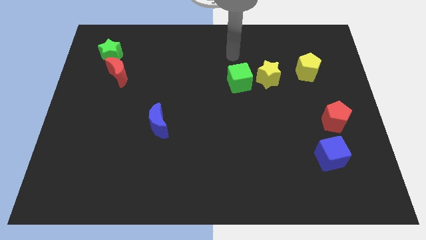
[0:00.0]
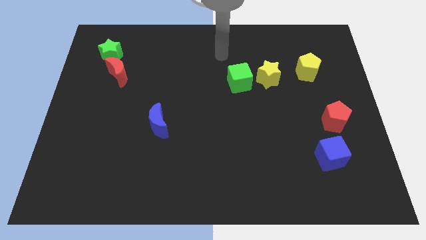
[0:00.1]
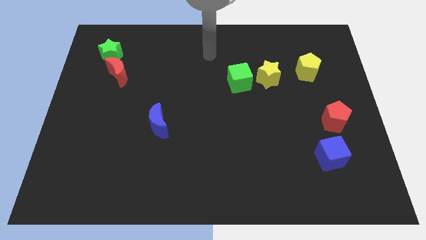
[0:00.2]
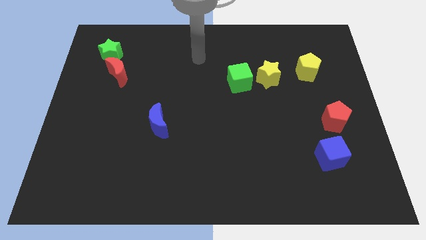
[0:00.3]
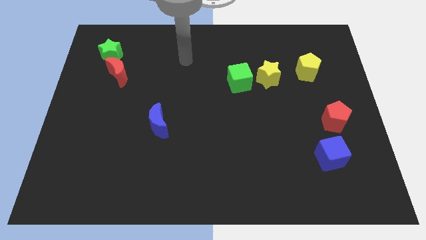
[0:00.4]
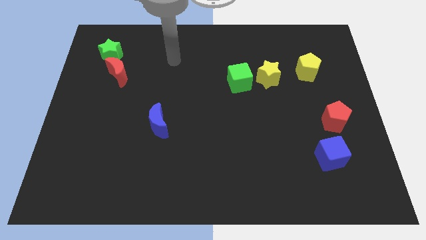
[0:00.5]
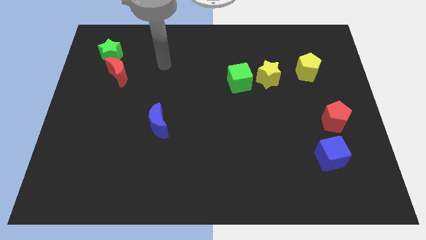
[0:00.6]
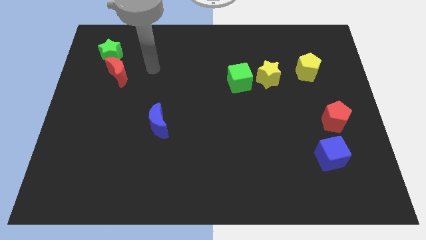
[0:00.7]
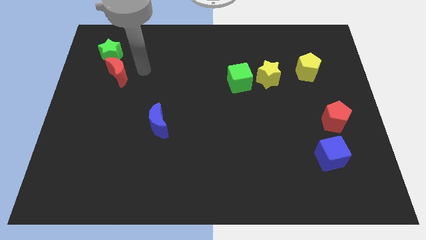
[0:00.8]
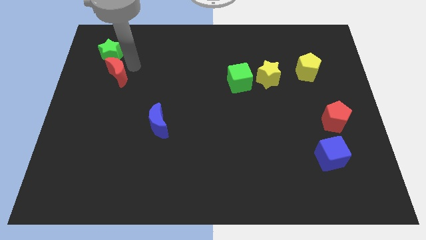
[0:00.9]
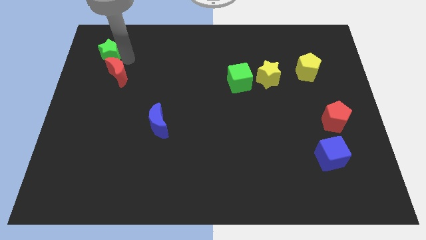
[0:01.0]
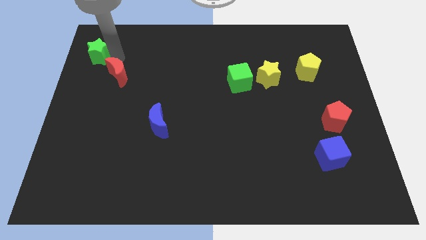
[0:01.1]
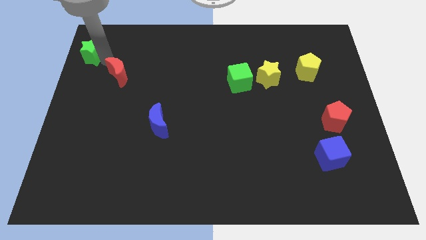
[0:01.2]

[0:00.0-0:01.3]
move the red moon away from the green star

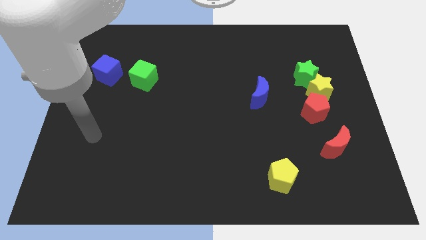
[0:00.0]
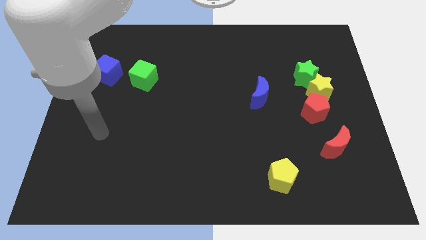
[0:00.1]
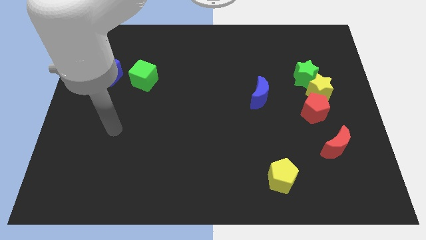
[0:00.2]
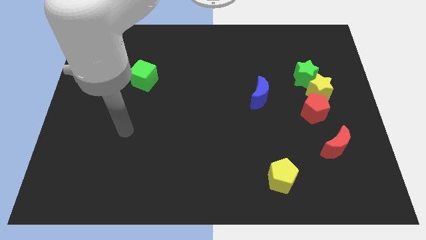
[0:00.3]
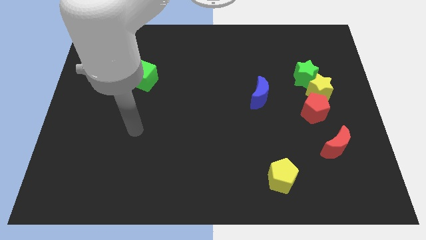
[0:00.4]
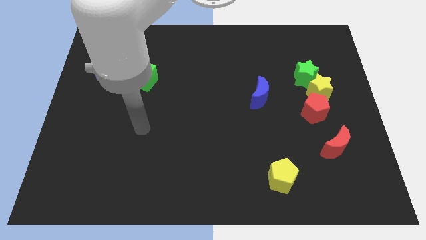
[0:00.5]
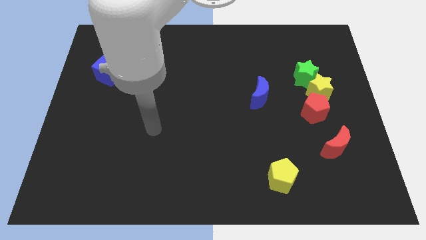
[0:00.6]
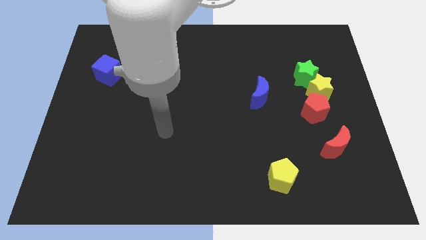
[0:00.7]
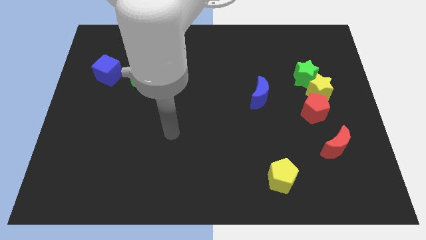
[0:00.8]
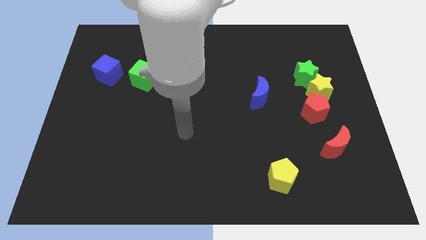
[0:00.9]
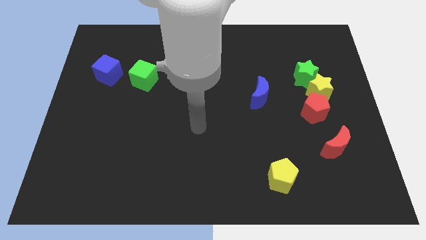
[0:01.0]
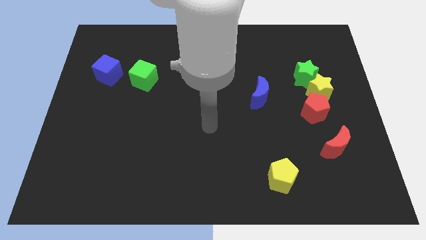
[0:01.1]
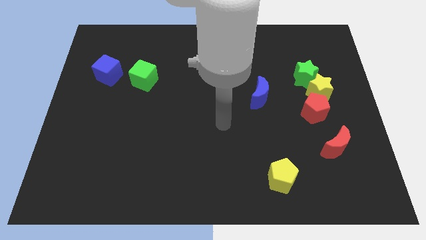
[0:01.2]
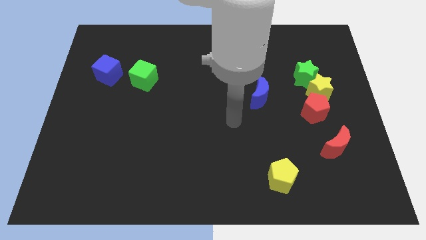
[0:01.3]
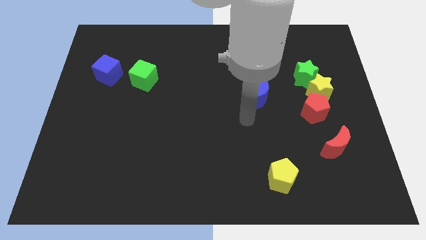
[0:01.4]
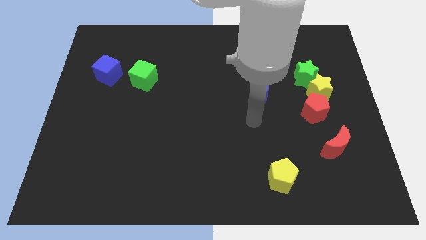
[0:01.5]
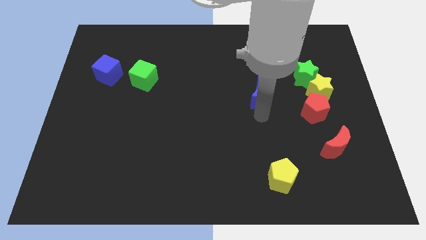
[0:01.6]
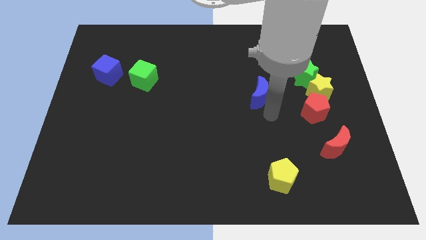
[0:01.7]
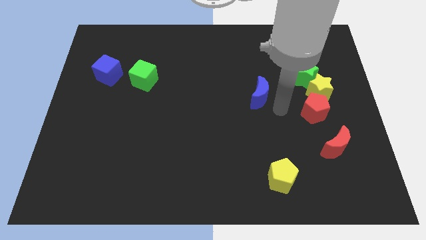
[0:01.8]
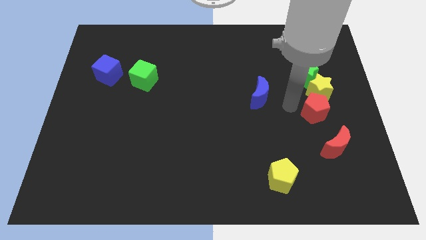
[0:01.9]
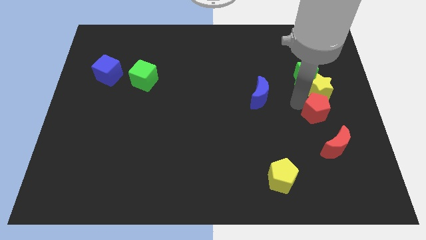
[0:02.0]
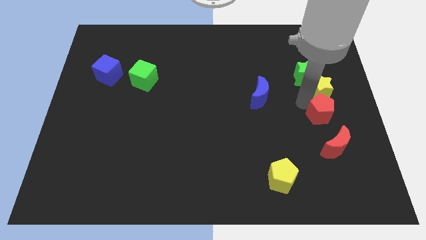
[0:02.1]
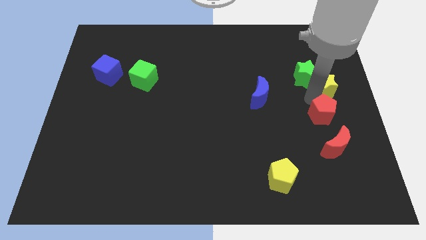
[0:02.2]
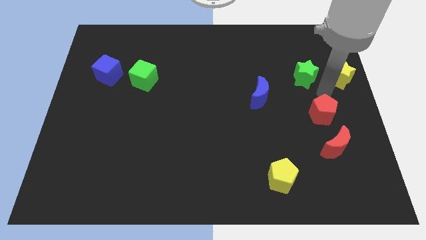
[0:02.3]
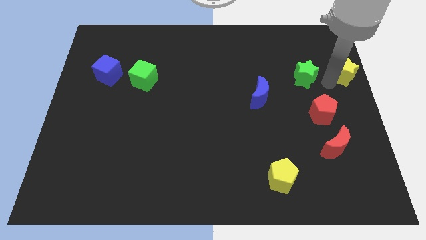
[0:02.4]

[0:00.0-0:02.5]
move the green star away from the yellow star

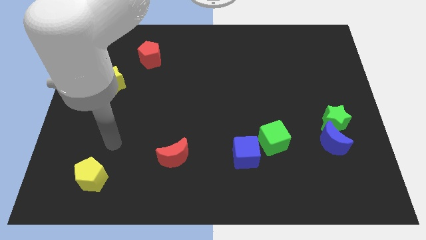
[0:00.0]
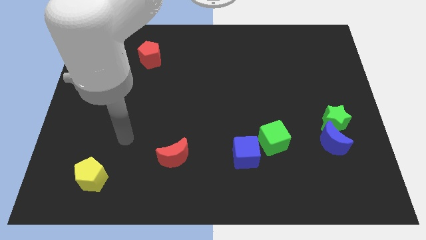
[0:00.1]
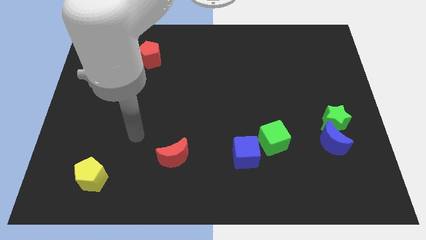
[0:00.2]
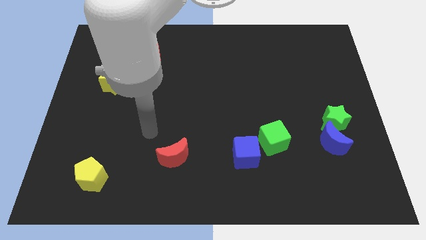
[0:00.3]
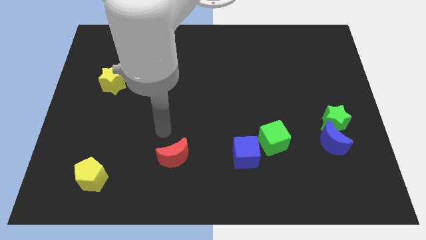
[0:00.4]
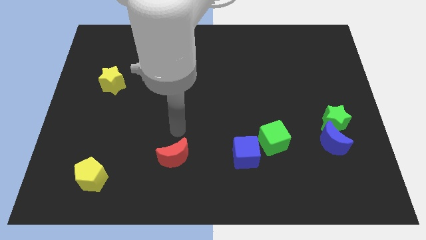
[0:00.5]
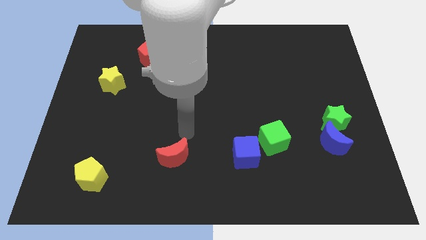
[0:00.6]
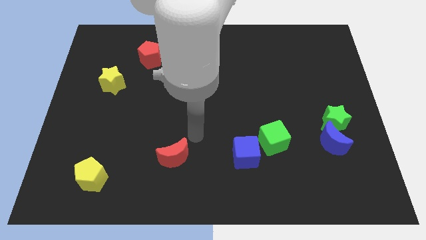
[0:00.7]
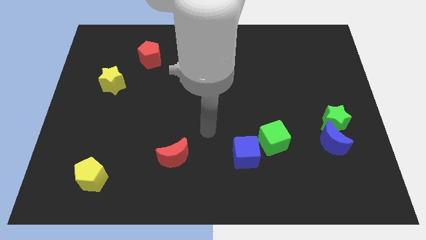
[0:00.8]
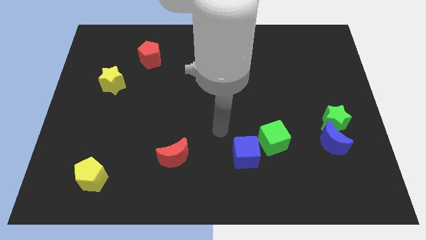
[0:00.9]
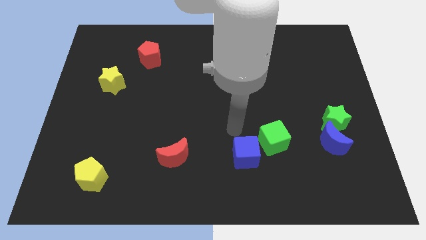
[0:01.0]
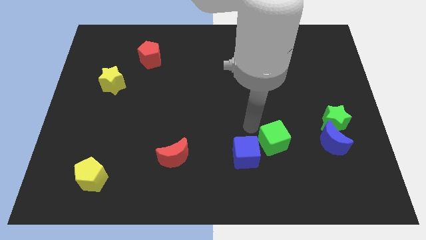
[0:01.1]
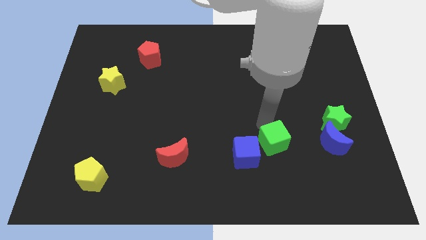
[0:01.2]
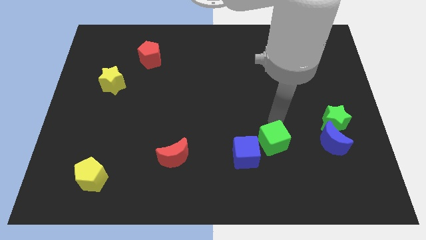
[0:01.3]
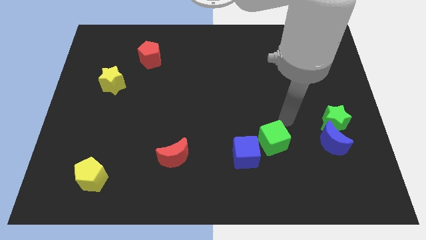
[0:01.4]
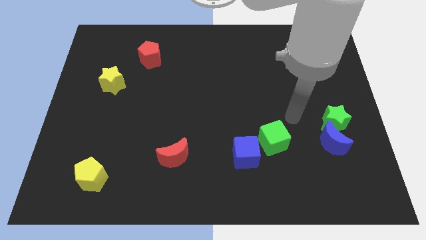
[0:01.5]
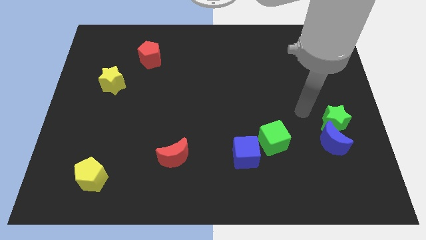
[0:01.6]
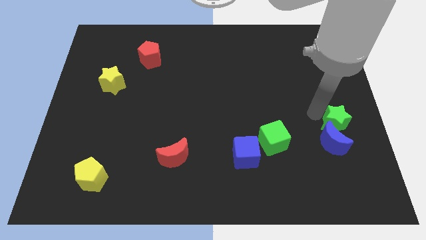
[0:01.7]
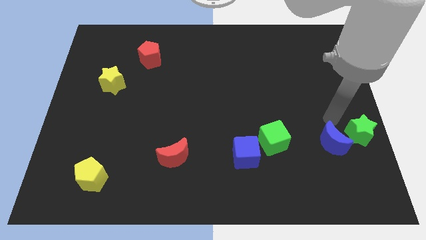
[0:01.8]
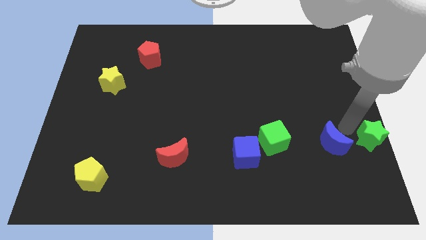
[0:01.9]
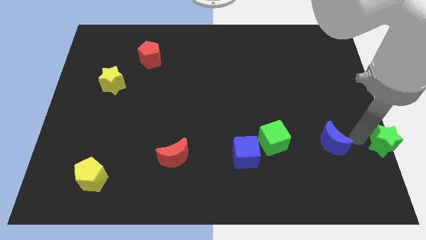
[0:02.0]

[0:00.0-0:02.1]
pull the blue moon apart from the green star

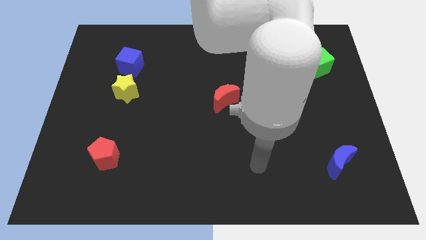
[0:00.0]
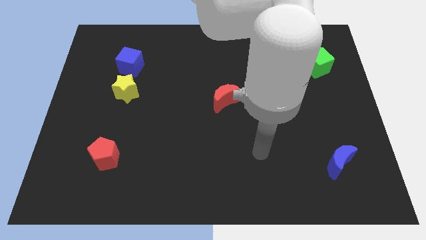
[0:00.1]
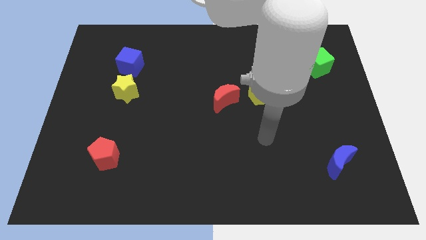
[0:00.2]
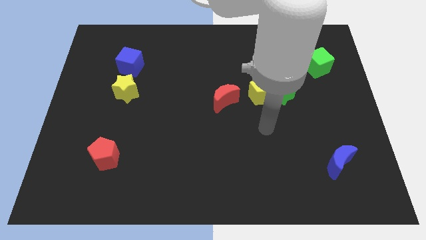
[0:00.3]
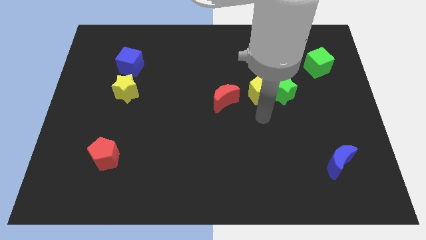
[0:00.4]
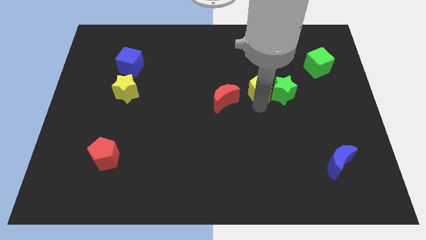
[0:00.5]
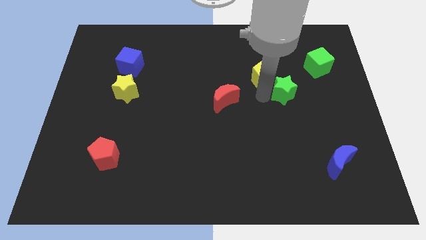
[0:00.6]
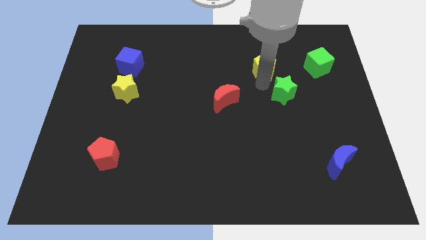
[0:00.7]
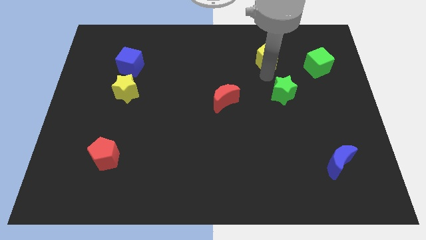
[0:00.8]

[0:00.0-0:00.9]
pull the green star apart from the yellow pentagon

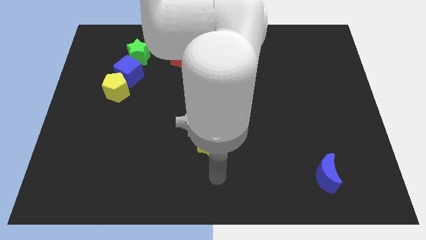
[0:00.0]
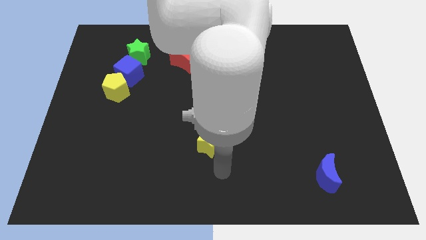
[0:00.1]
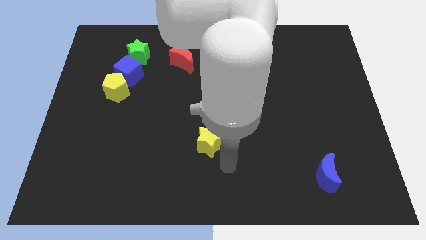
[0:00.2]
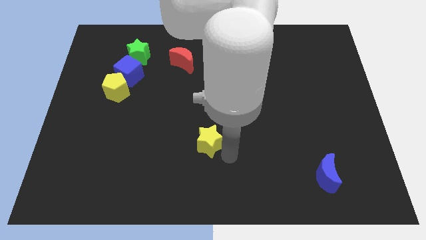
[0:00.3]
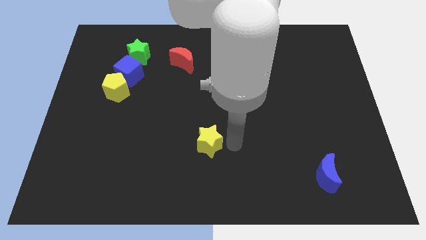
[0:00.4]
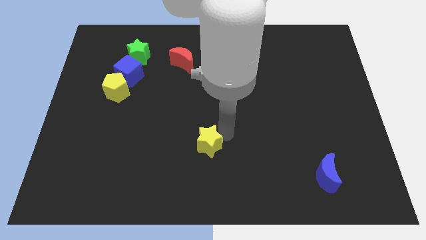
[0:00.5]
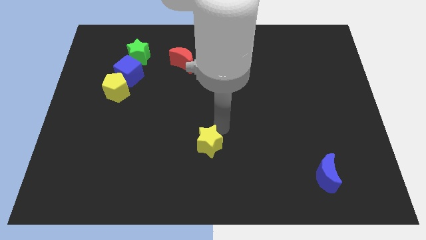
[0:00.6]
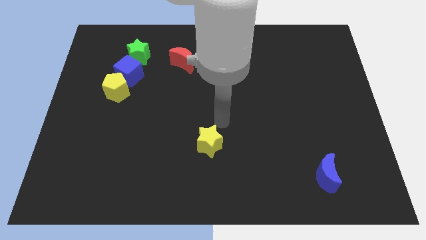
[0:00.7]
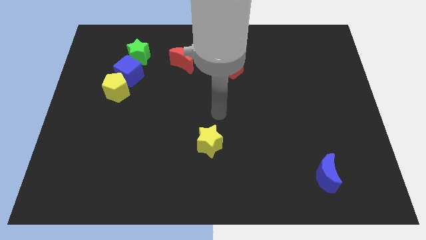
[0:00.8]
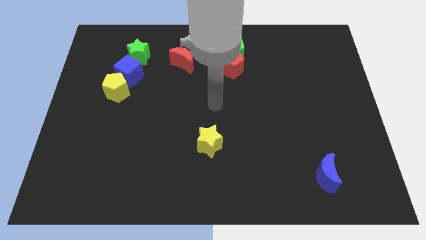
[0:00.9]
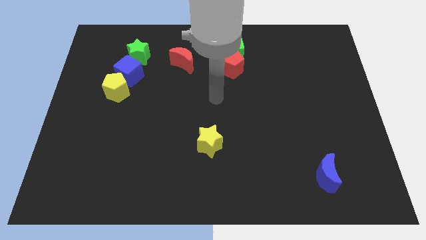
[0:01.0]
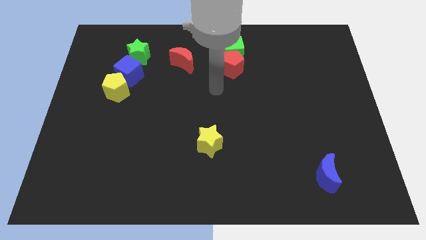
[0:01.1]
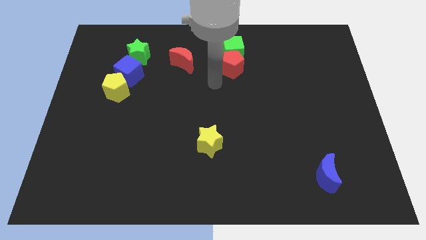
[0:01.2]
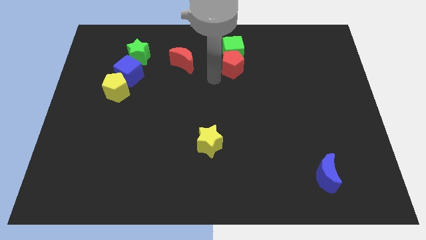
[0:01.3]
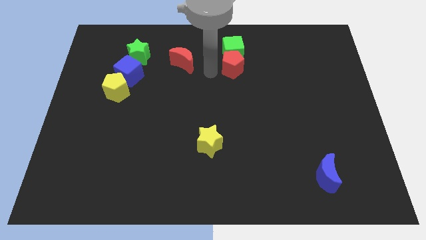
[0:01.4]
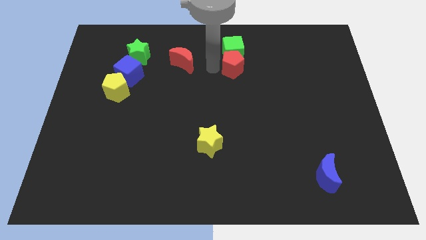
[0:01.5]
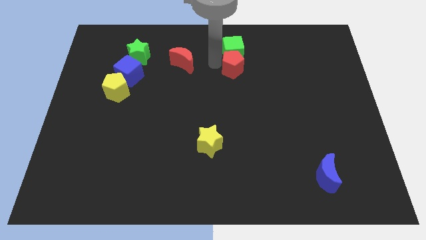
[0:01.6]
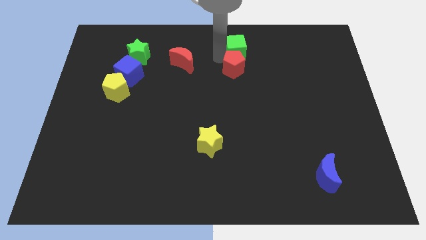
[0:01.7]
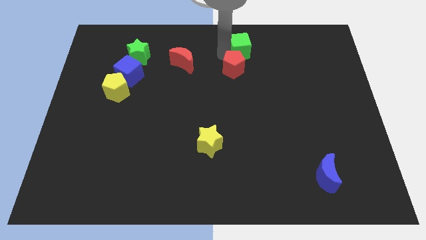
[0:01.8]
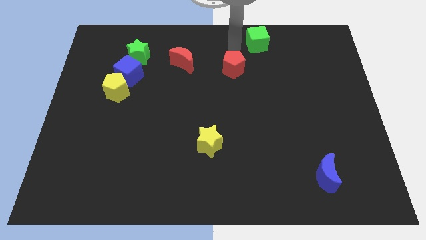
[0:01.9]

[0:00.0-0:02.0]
separate the red pentagon from the green cube

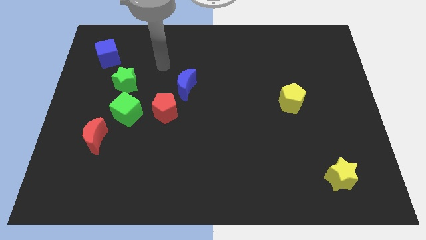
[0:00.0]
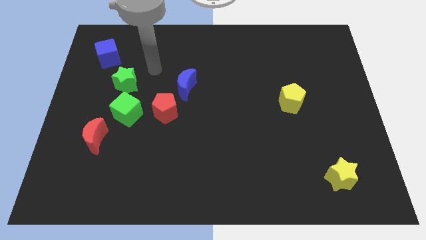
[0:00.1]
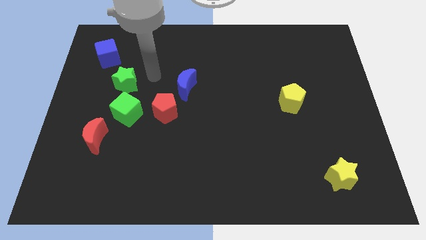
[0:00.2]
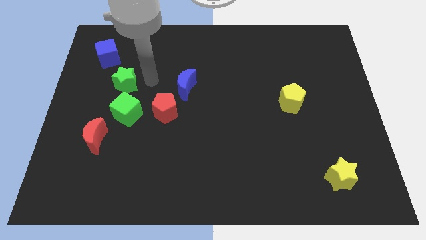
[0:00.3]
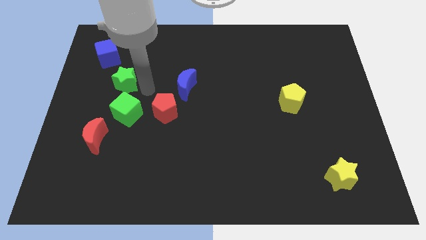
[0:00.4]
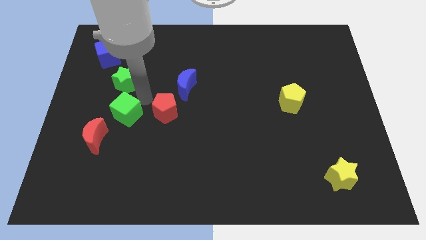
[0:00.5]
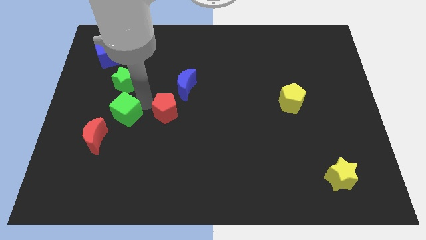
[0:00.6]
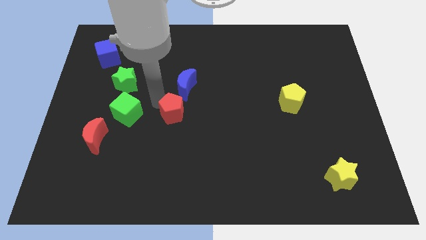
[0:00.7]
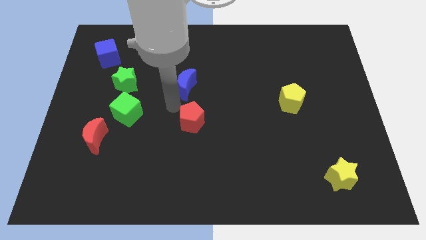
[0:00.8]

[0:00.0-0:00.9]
separate the blue moon from the red pentagon
